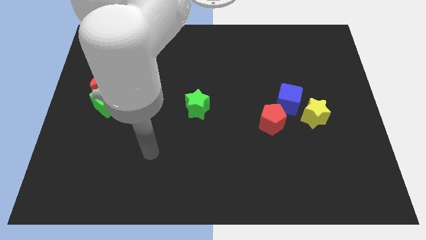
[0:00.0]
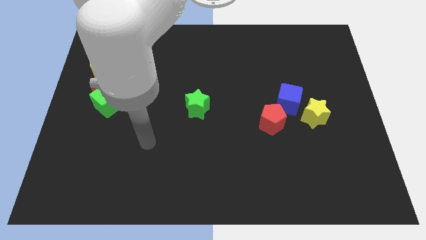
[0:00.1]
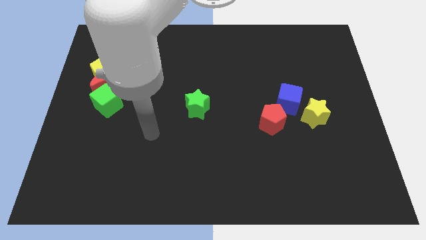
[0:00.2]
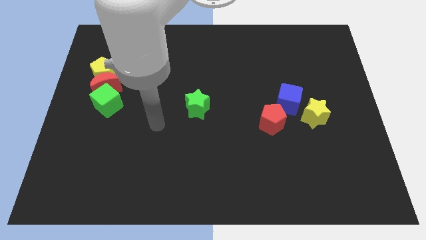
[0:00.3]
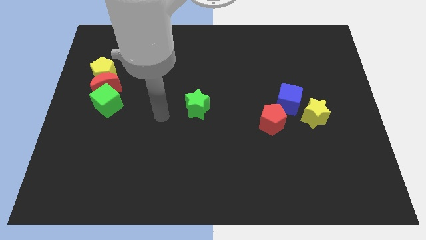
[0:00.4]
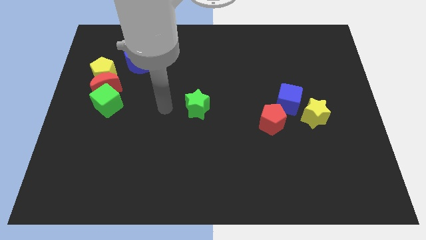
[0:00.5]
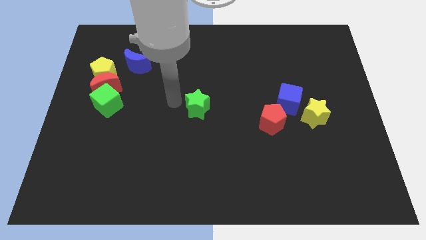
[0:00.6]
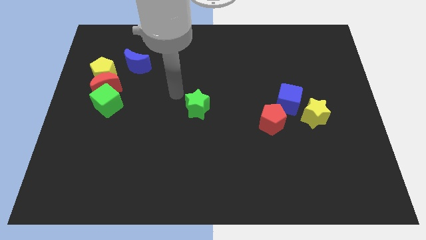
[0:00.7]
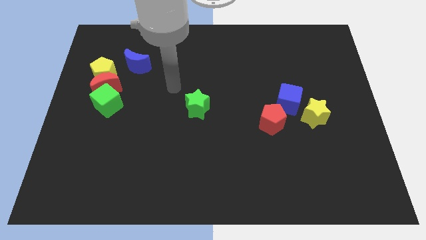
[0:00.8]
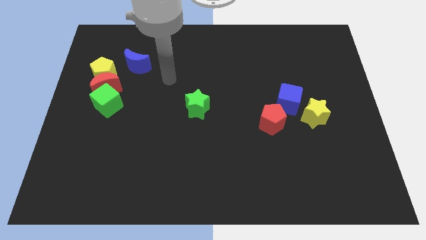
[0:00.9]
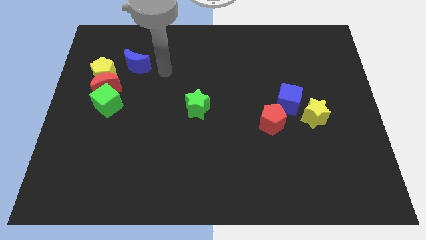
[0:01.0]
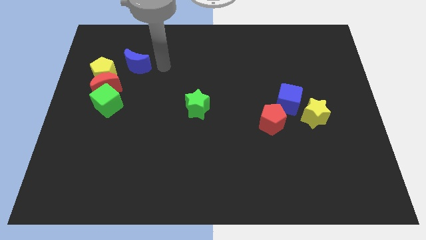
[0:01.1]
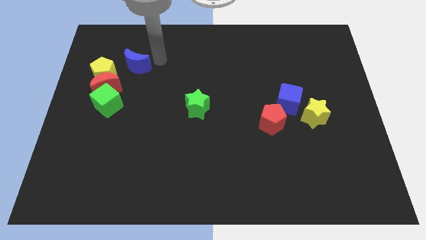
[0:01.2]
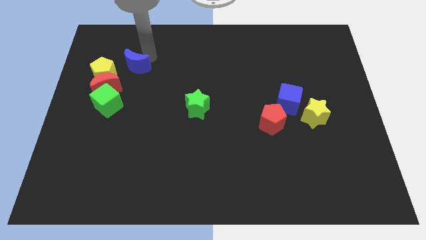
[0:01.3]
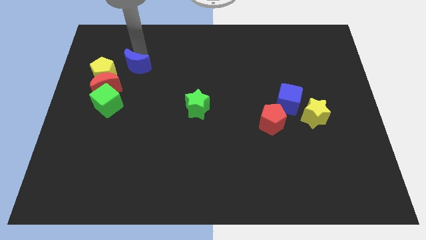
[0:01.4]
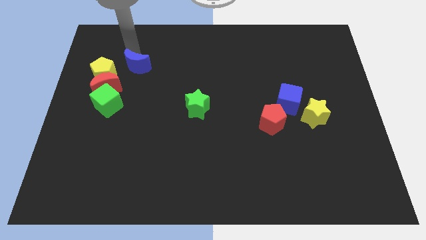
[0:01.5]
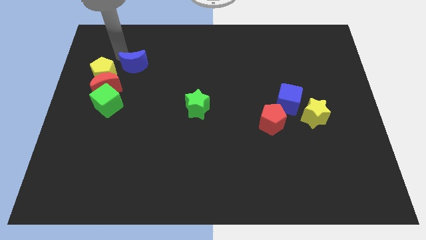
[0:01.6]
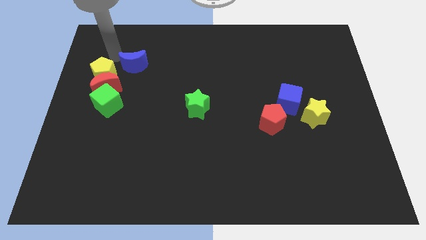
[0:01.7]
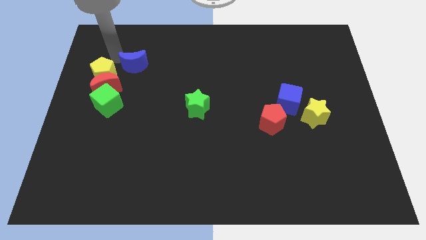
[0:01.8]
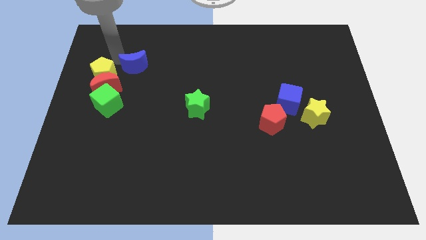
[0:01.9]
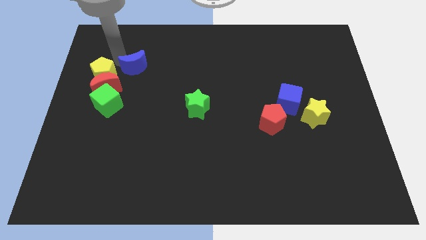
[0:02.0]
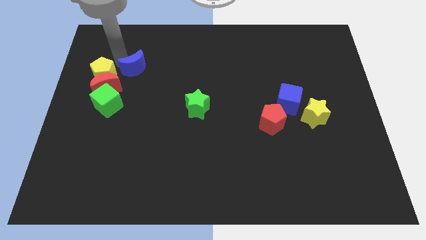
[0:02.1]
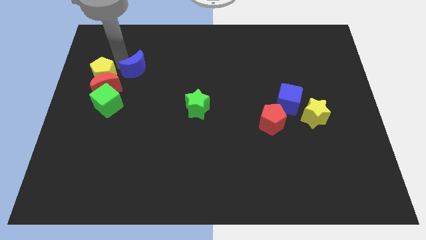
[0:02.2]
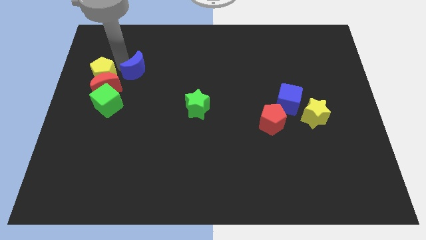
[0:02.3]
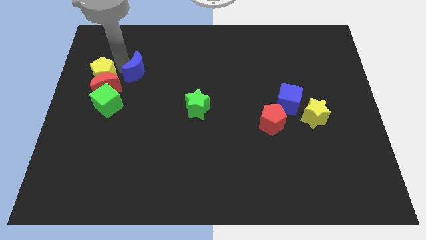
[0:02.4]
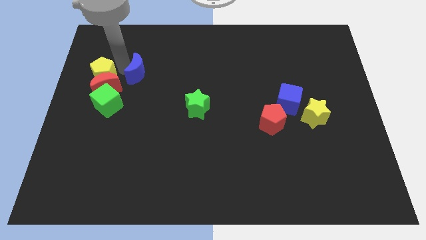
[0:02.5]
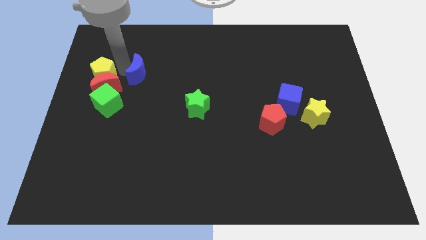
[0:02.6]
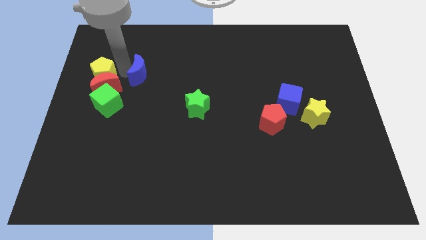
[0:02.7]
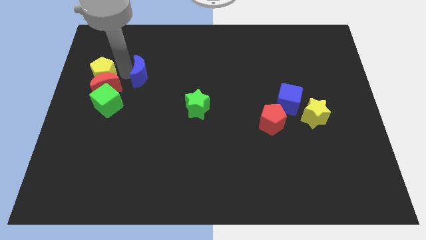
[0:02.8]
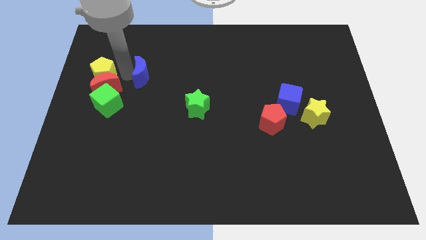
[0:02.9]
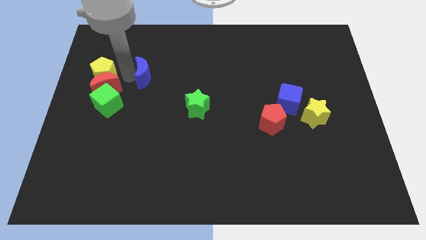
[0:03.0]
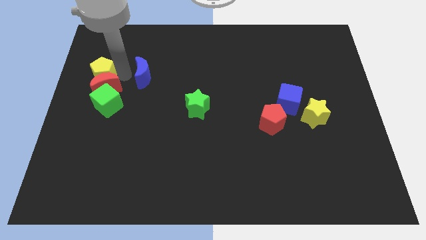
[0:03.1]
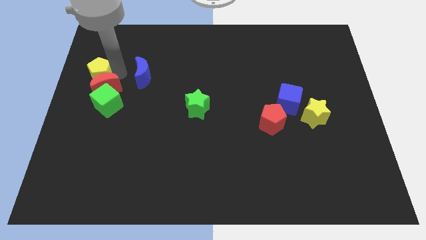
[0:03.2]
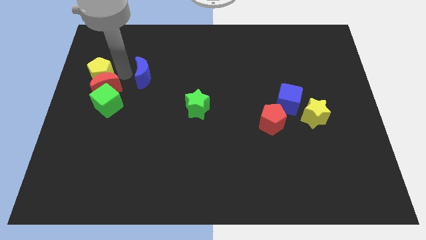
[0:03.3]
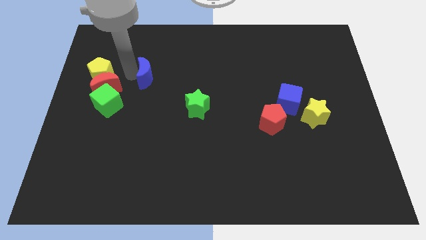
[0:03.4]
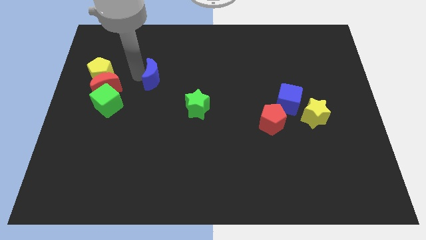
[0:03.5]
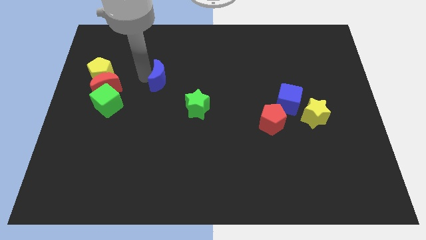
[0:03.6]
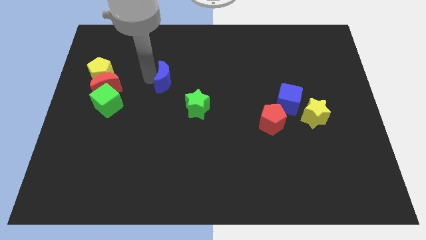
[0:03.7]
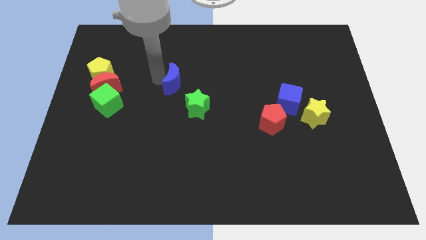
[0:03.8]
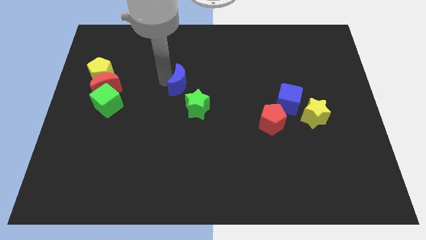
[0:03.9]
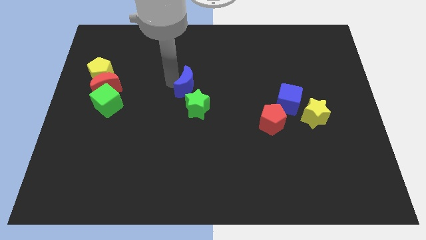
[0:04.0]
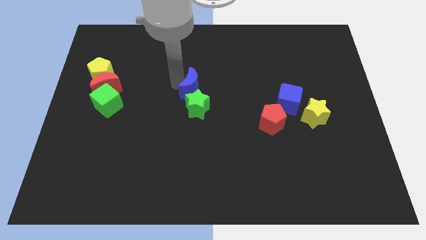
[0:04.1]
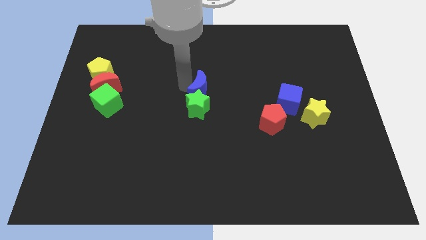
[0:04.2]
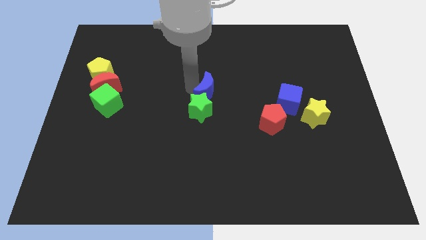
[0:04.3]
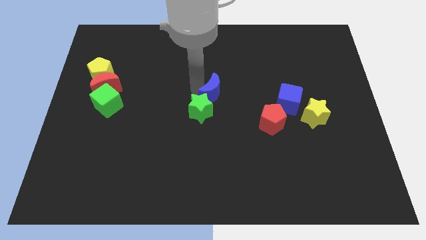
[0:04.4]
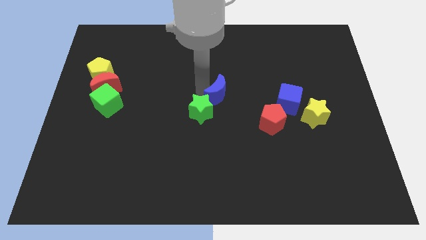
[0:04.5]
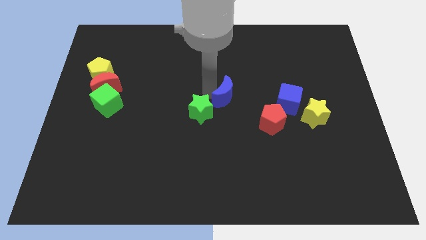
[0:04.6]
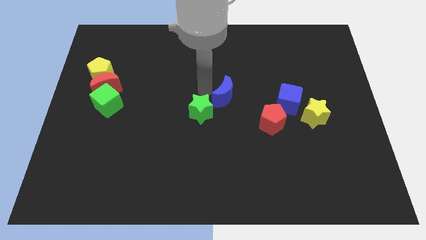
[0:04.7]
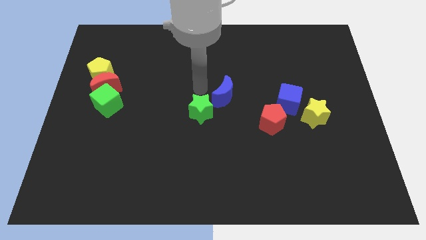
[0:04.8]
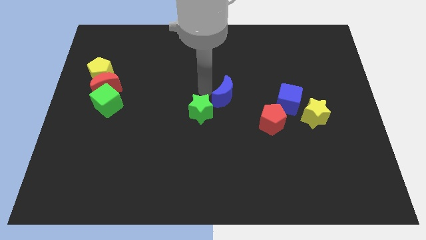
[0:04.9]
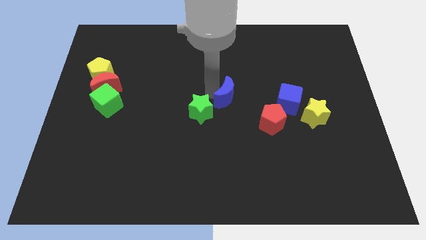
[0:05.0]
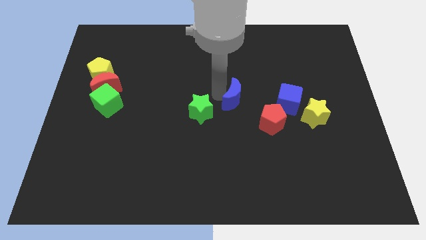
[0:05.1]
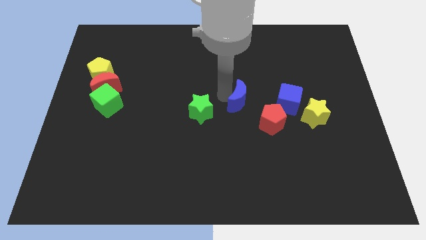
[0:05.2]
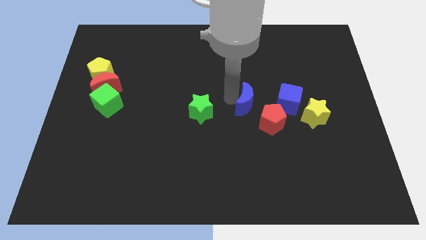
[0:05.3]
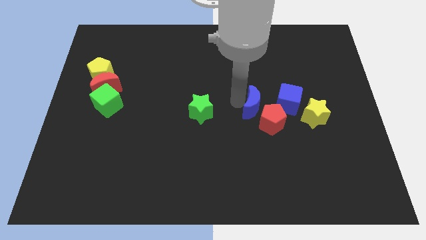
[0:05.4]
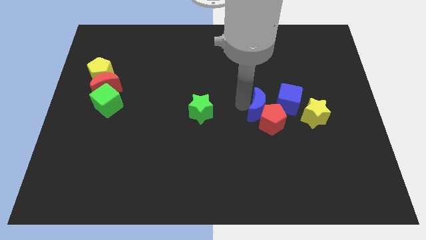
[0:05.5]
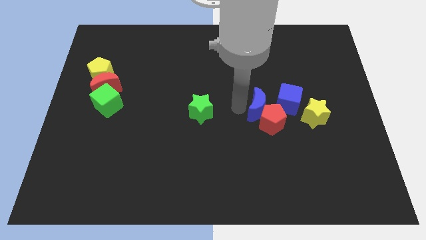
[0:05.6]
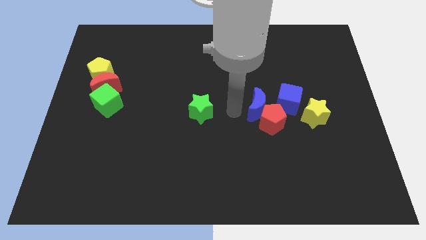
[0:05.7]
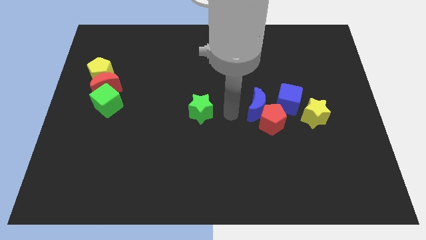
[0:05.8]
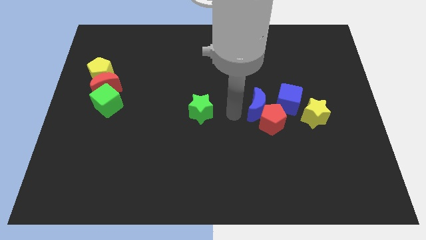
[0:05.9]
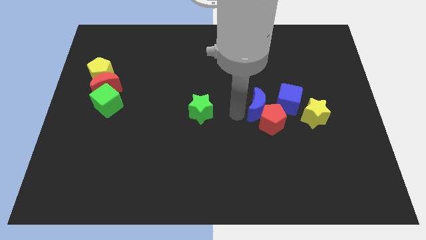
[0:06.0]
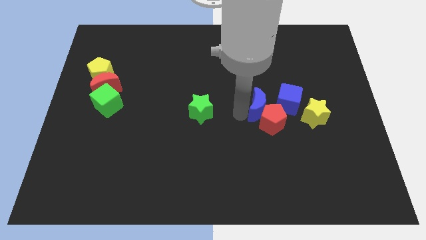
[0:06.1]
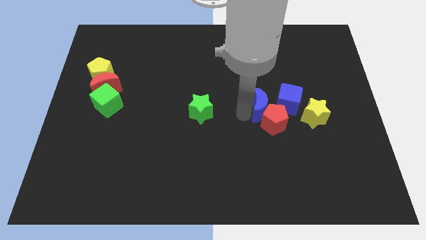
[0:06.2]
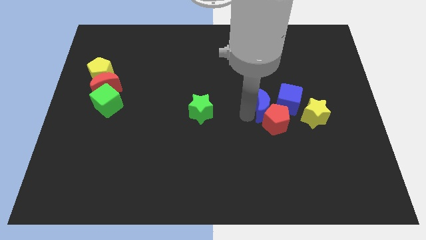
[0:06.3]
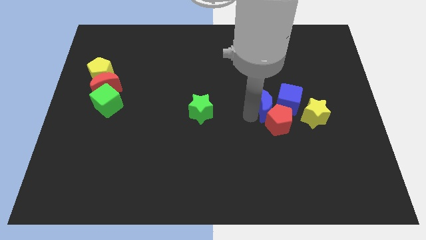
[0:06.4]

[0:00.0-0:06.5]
move the blue moon close to the blue cube

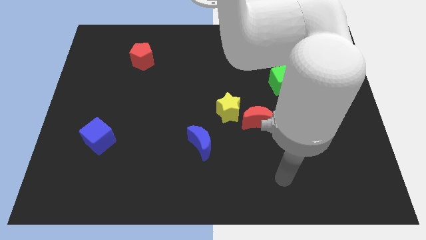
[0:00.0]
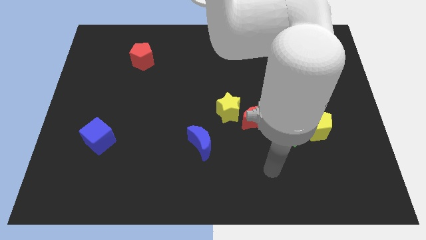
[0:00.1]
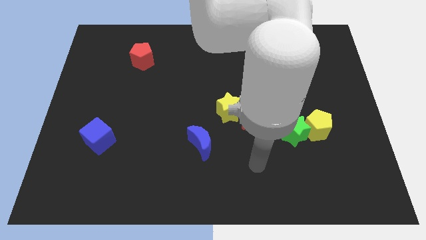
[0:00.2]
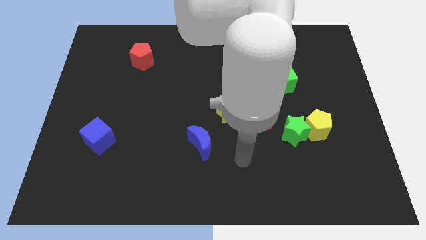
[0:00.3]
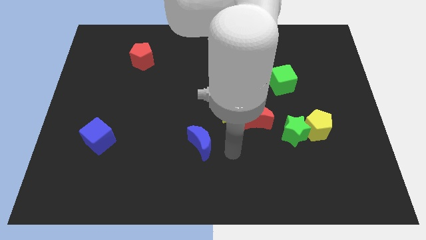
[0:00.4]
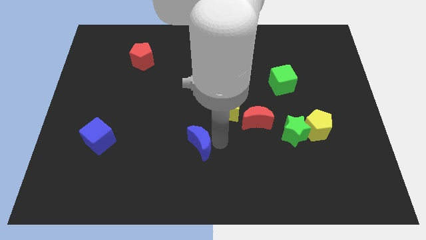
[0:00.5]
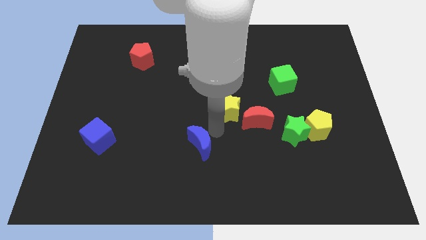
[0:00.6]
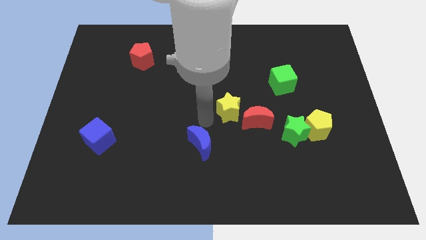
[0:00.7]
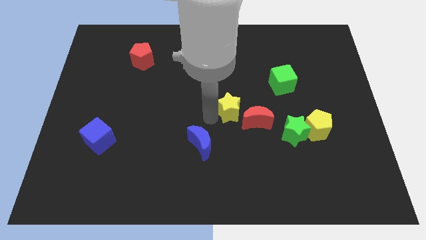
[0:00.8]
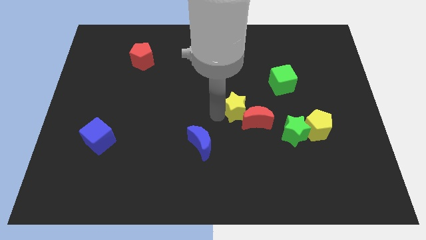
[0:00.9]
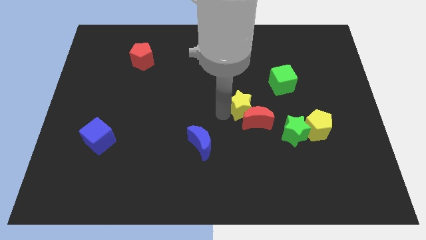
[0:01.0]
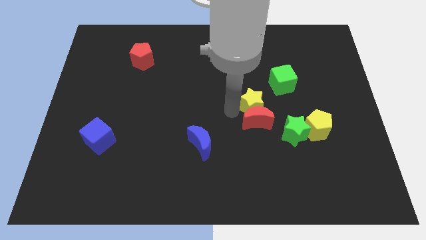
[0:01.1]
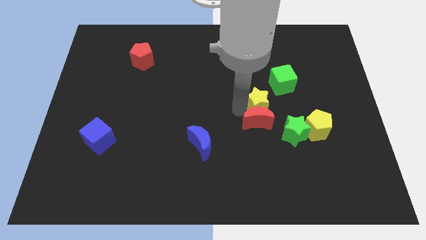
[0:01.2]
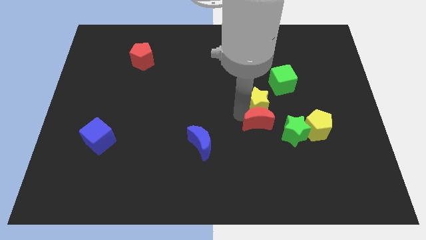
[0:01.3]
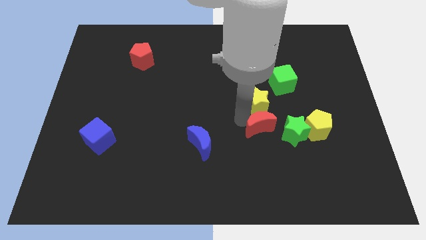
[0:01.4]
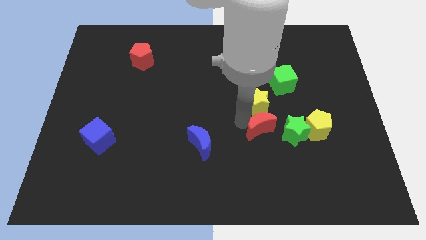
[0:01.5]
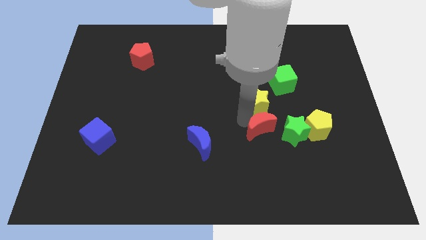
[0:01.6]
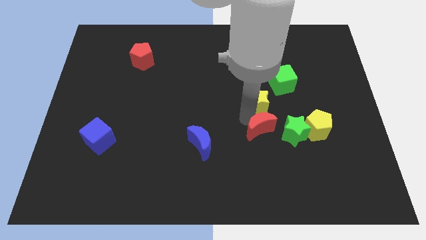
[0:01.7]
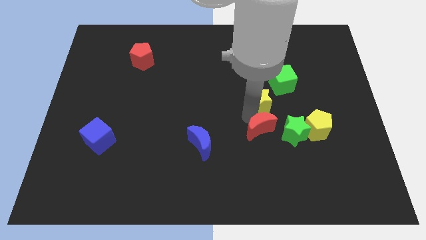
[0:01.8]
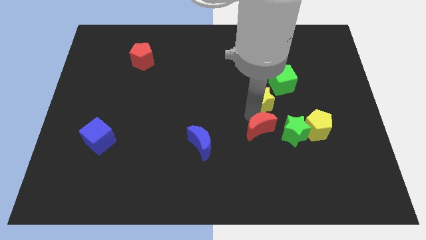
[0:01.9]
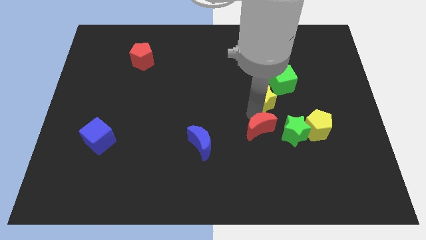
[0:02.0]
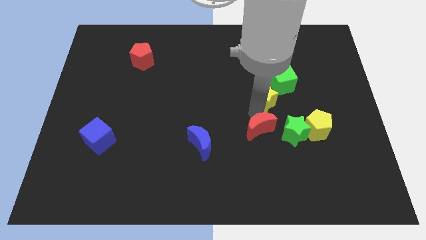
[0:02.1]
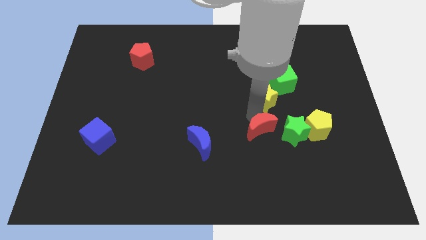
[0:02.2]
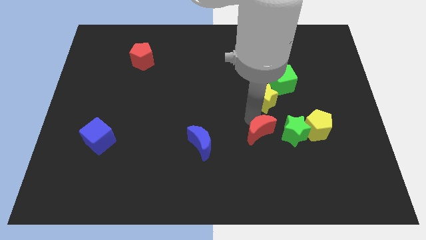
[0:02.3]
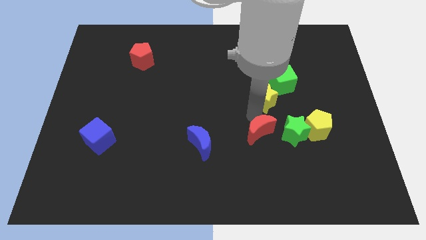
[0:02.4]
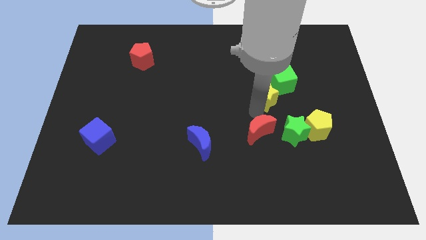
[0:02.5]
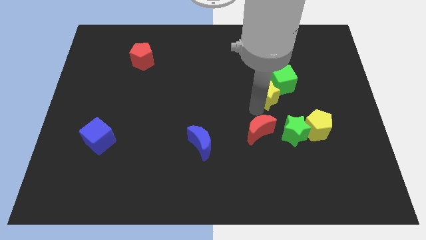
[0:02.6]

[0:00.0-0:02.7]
push the yellow star towards the green cube
